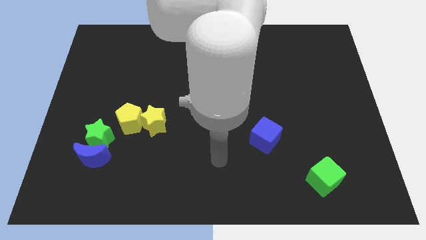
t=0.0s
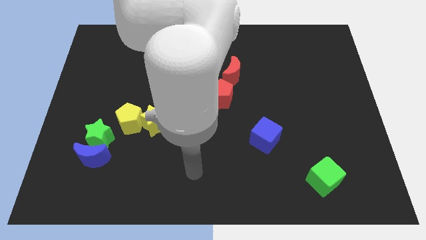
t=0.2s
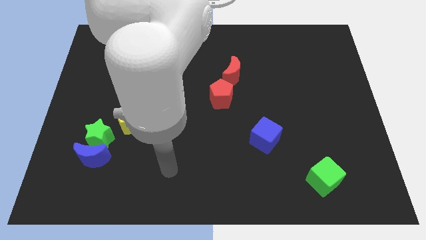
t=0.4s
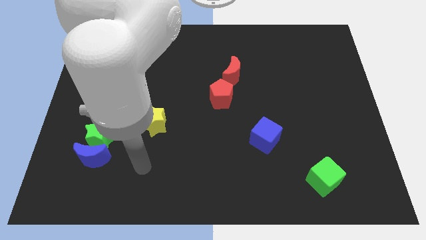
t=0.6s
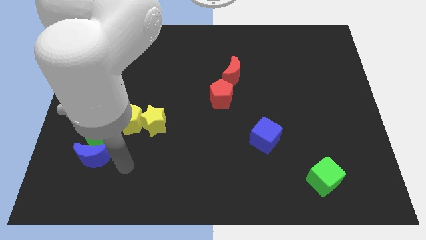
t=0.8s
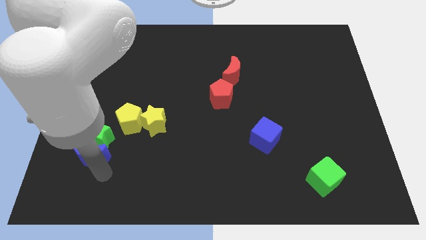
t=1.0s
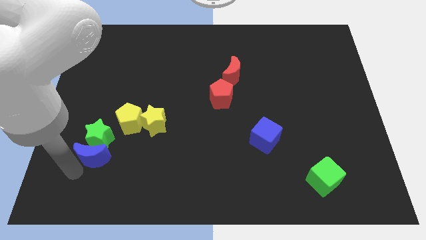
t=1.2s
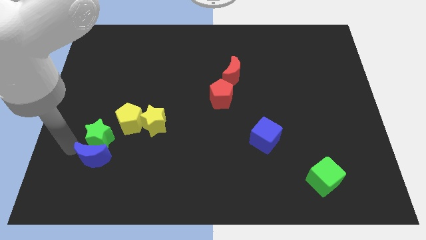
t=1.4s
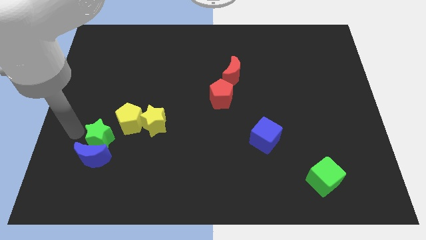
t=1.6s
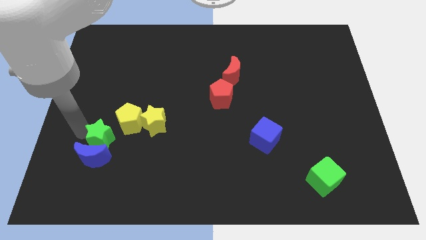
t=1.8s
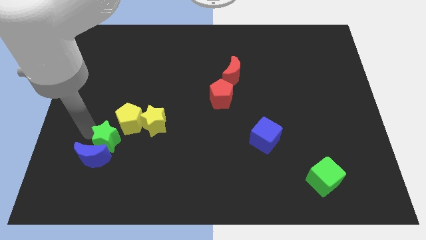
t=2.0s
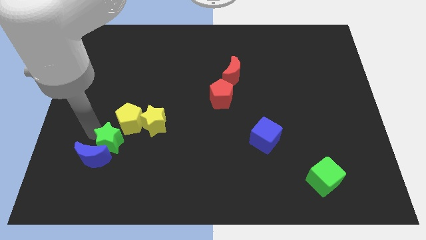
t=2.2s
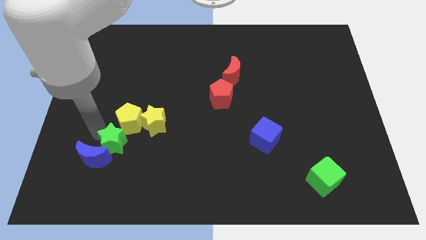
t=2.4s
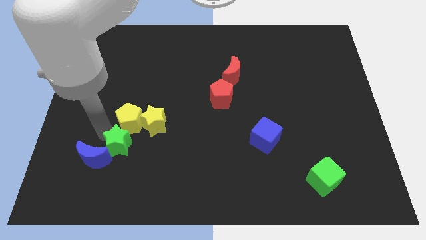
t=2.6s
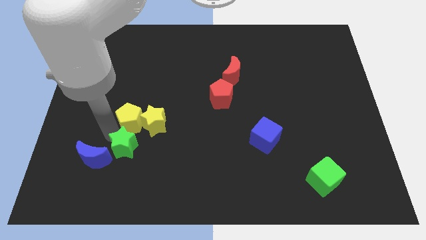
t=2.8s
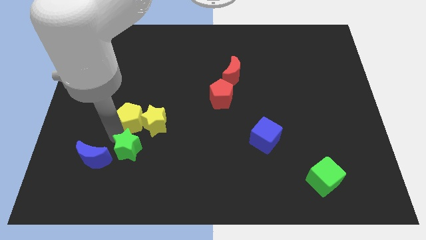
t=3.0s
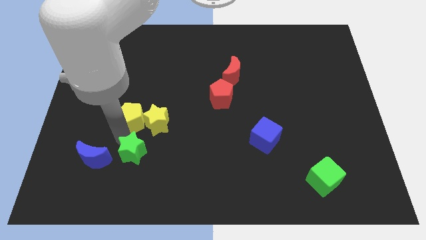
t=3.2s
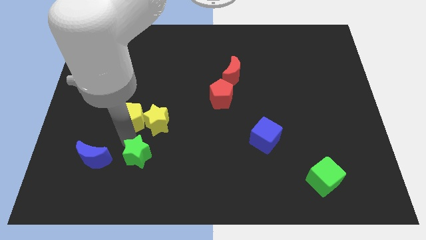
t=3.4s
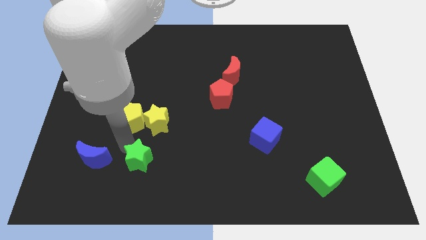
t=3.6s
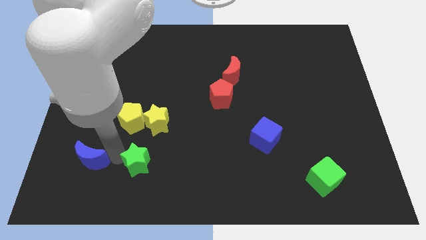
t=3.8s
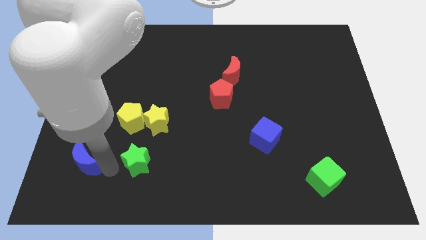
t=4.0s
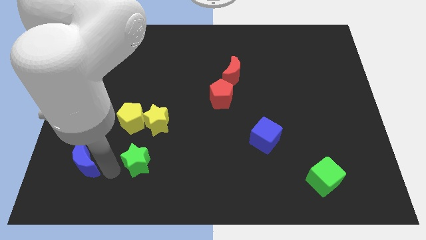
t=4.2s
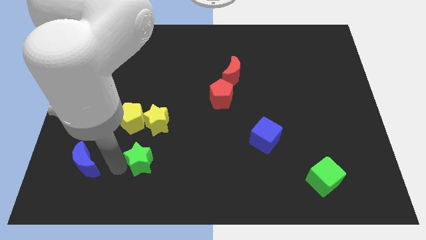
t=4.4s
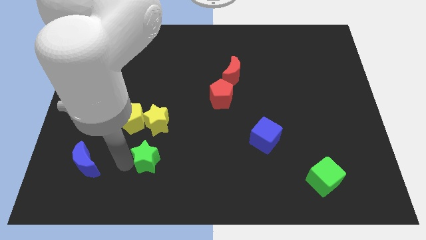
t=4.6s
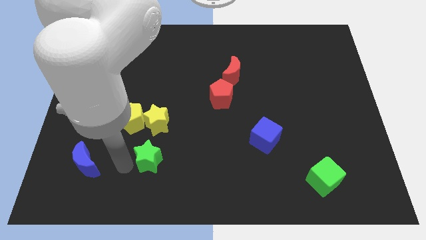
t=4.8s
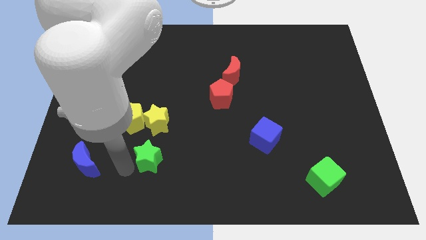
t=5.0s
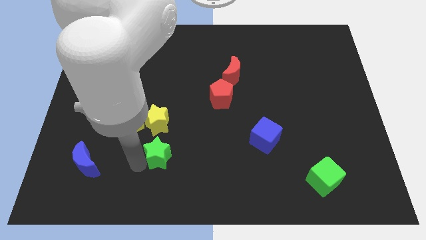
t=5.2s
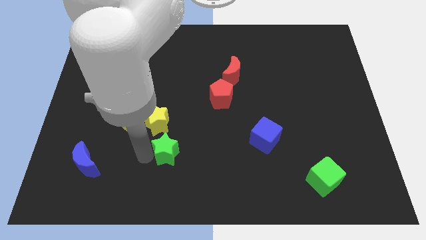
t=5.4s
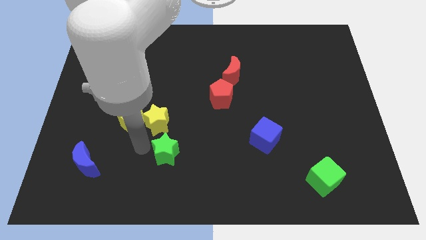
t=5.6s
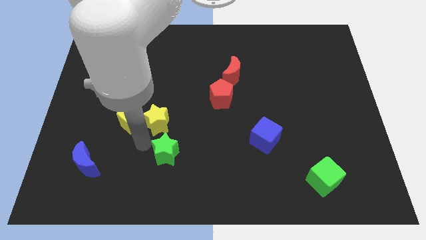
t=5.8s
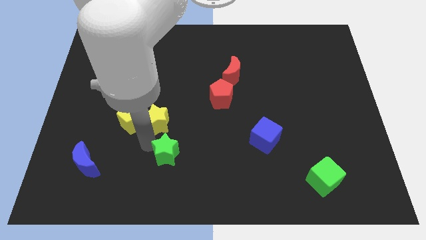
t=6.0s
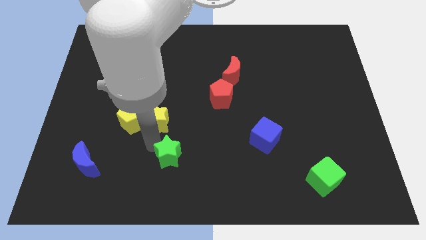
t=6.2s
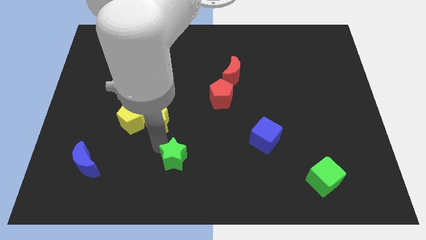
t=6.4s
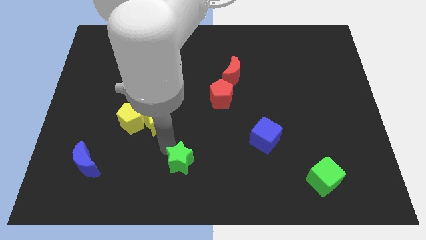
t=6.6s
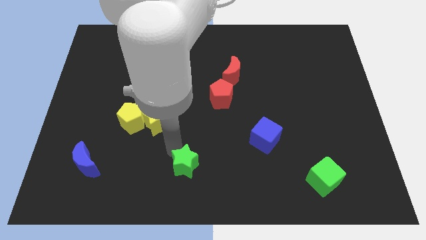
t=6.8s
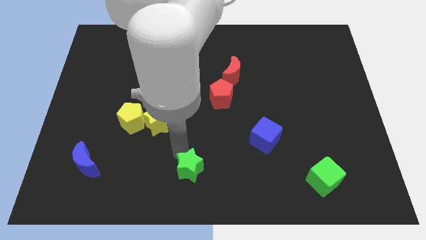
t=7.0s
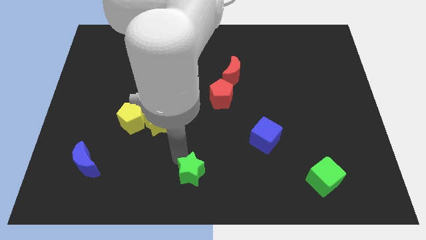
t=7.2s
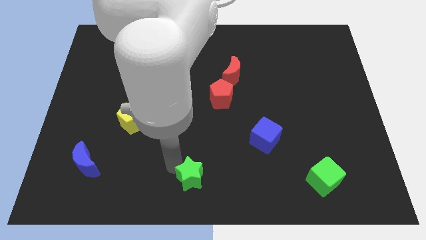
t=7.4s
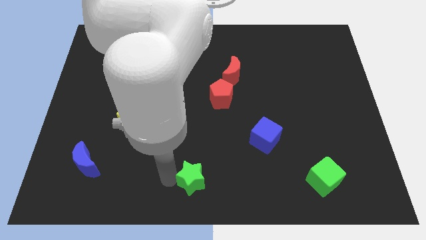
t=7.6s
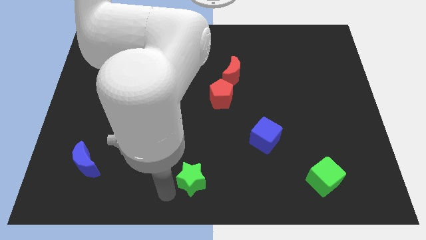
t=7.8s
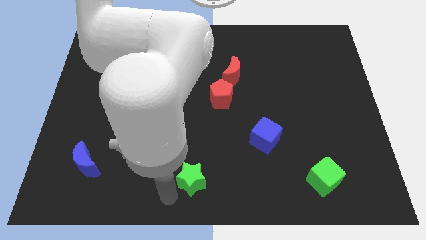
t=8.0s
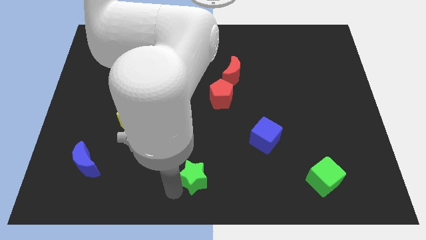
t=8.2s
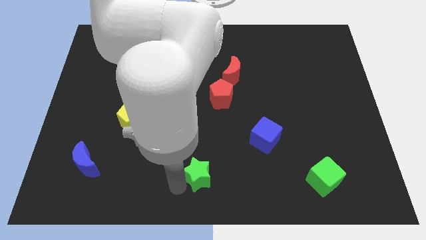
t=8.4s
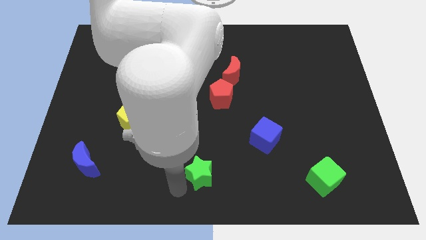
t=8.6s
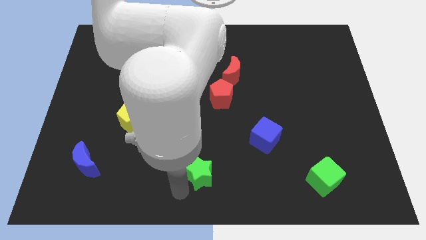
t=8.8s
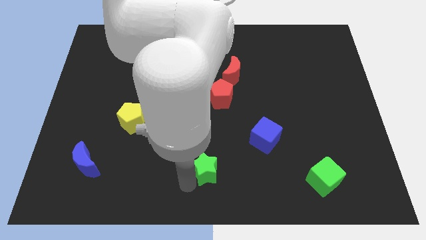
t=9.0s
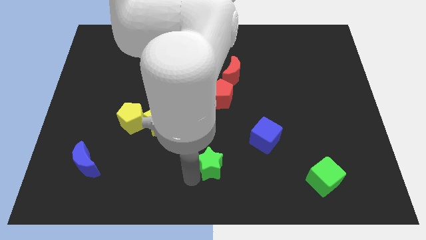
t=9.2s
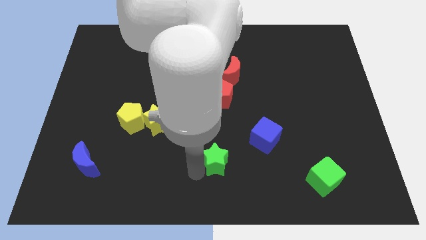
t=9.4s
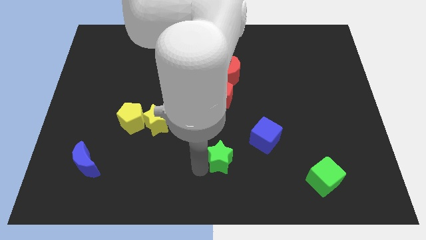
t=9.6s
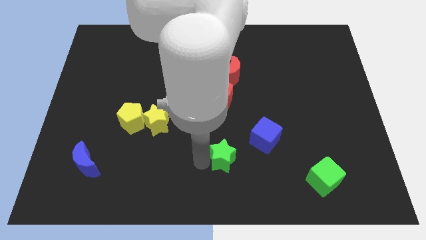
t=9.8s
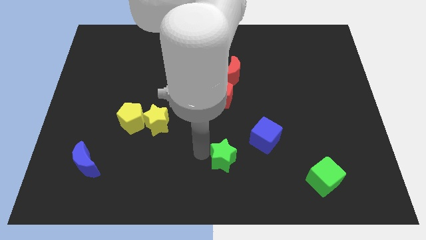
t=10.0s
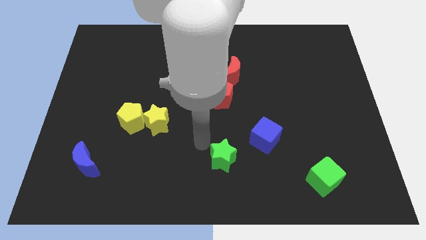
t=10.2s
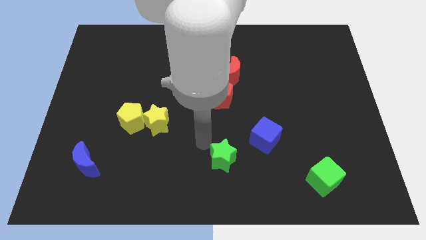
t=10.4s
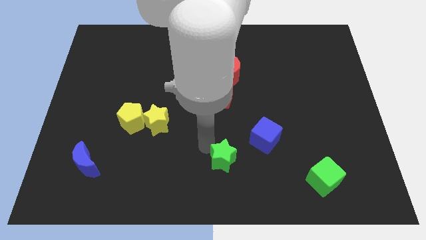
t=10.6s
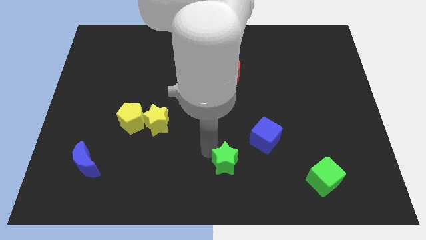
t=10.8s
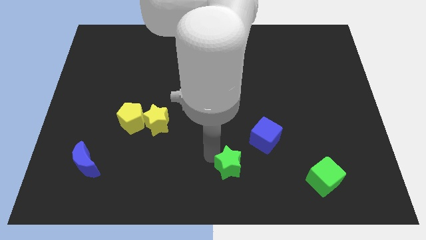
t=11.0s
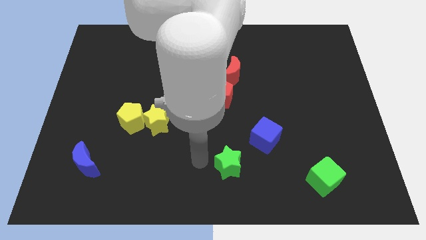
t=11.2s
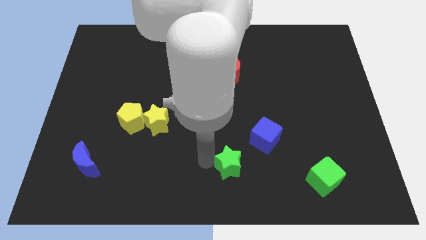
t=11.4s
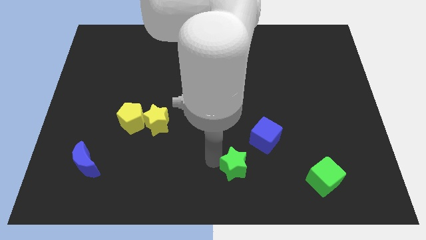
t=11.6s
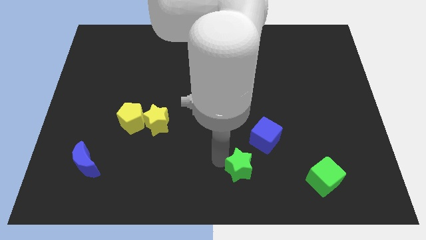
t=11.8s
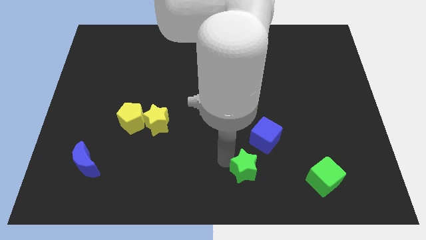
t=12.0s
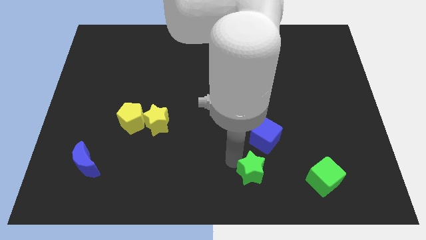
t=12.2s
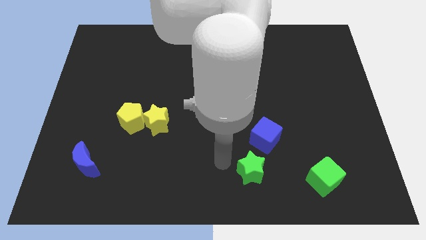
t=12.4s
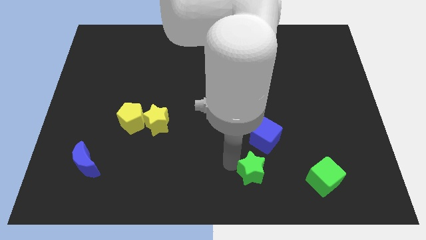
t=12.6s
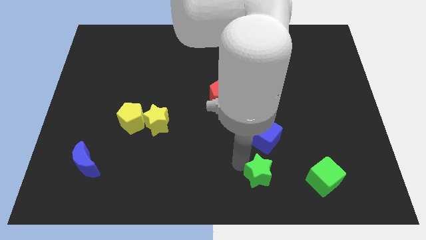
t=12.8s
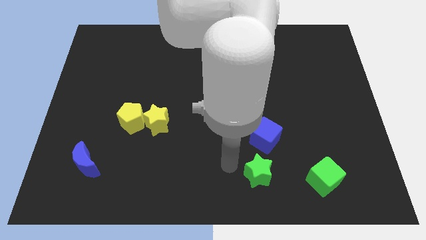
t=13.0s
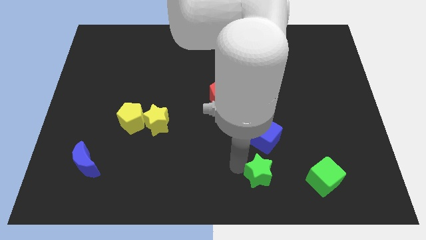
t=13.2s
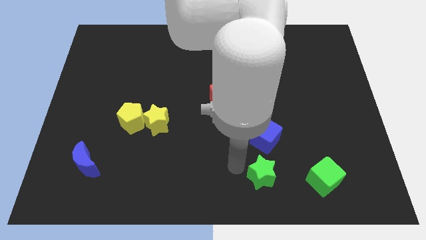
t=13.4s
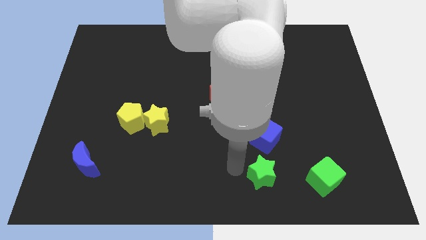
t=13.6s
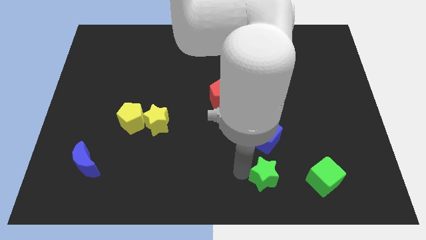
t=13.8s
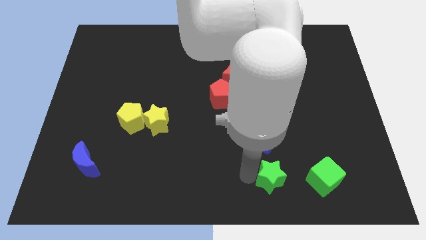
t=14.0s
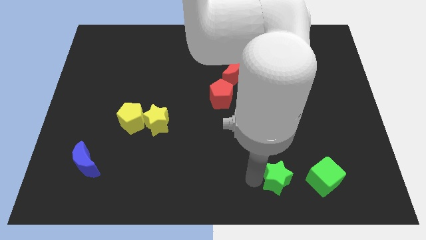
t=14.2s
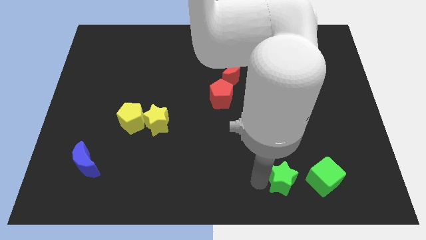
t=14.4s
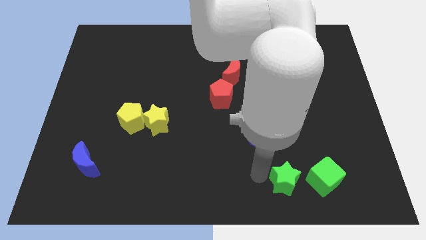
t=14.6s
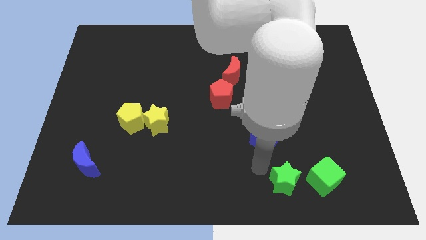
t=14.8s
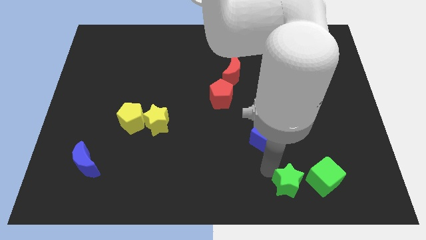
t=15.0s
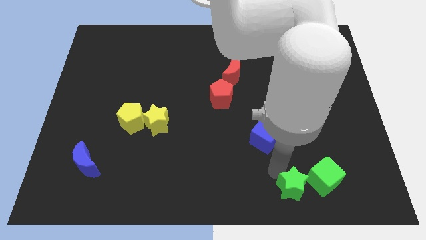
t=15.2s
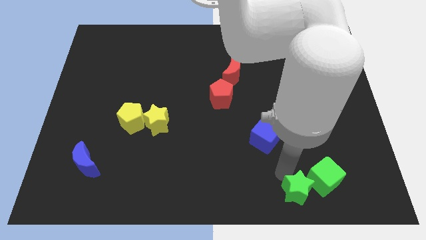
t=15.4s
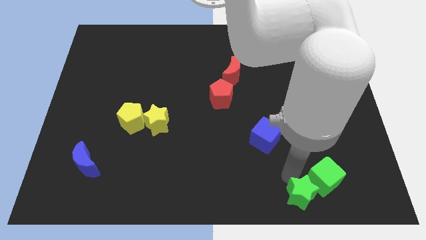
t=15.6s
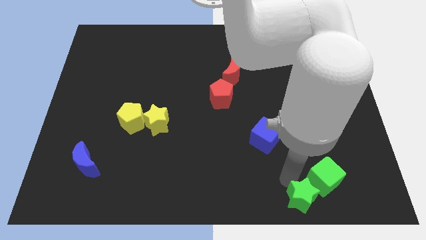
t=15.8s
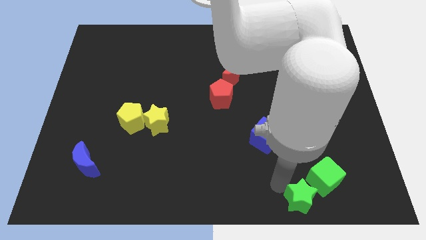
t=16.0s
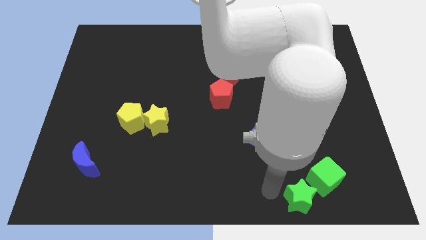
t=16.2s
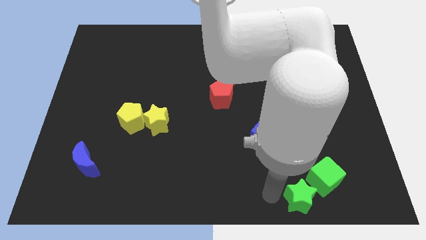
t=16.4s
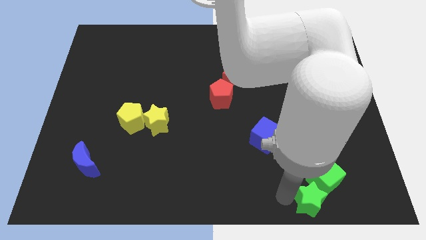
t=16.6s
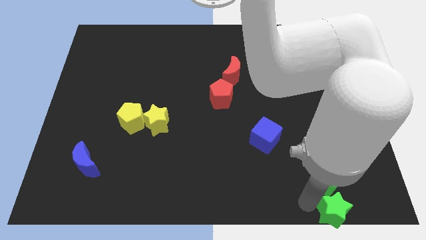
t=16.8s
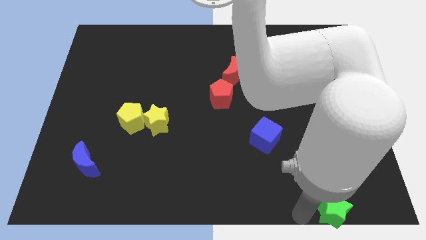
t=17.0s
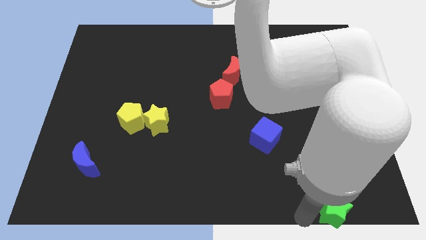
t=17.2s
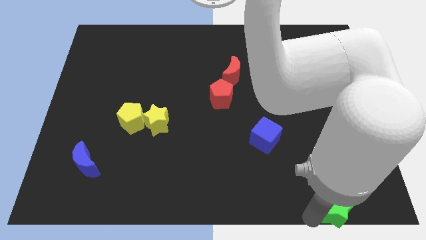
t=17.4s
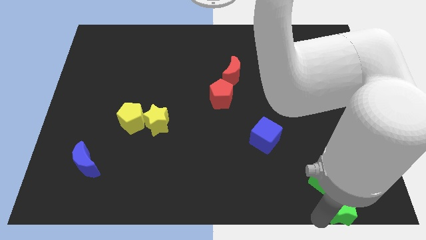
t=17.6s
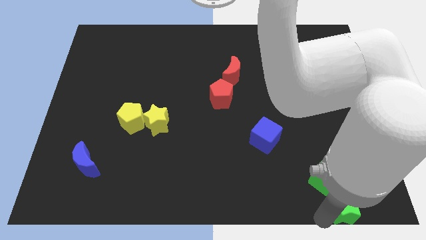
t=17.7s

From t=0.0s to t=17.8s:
slide the green star to the bottom right corner
